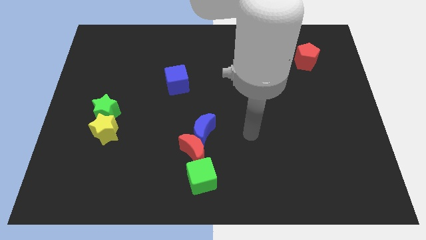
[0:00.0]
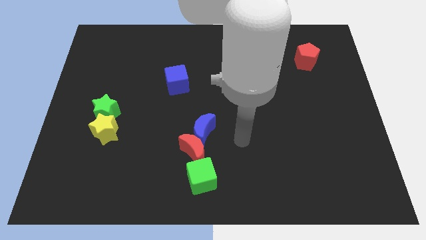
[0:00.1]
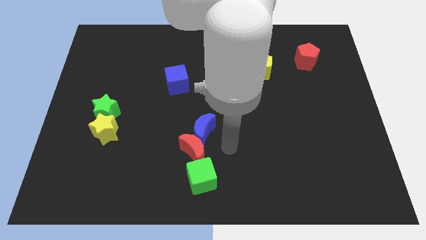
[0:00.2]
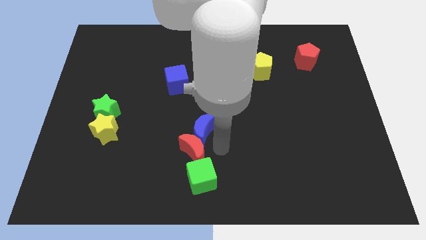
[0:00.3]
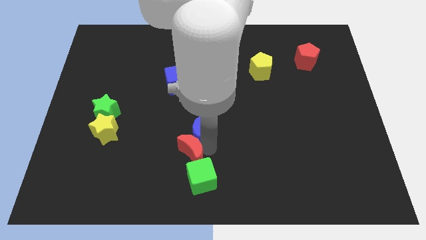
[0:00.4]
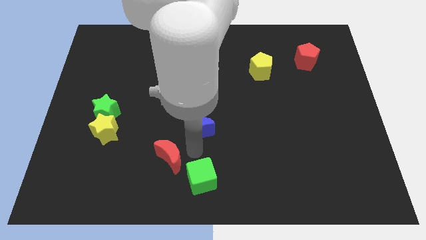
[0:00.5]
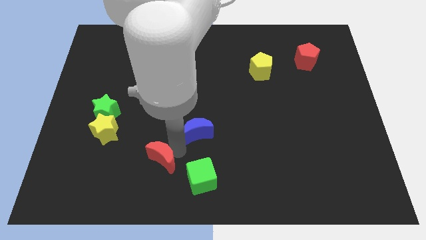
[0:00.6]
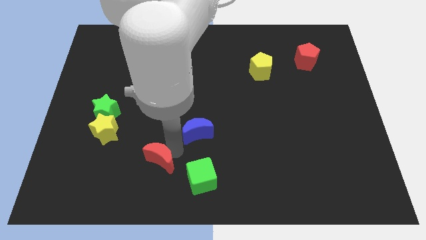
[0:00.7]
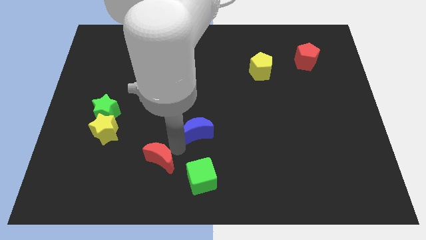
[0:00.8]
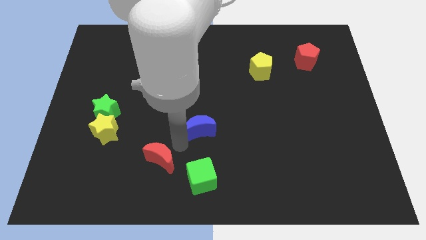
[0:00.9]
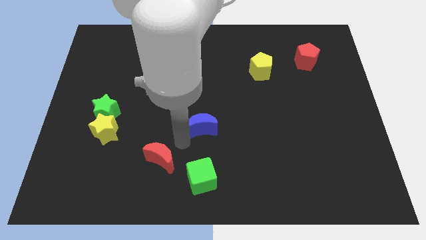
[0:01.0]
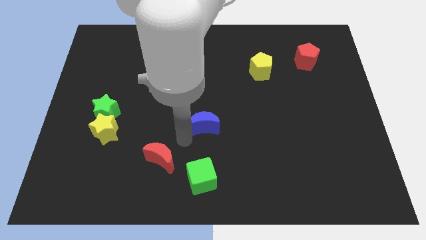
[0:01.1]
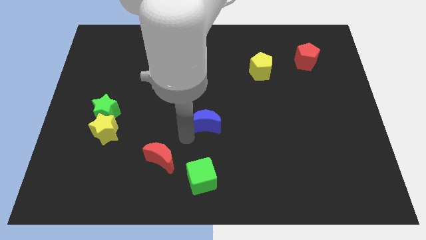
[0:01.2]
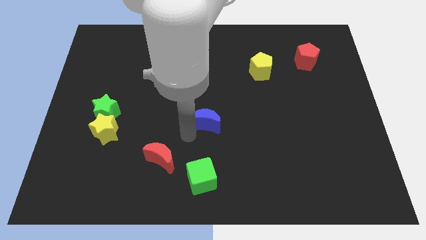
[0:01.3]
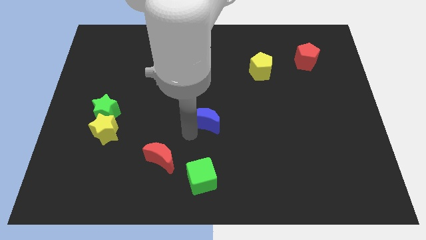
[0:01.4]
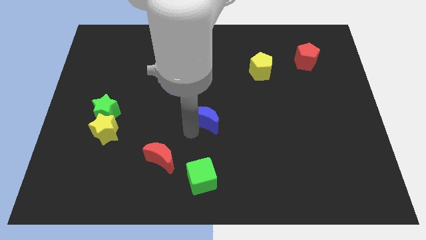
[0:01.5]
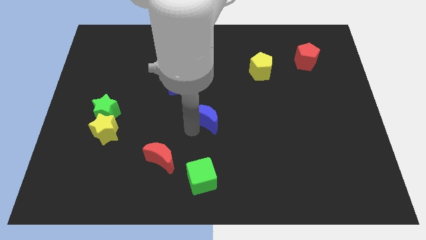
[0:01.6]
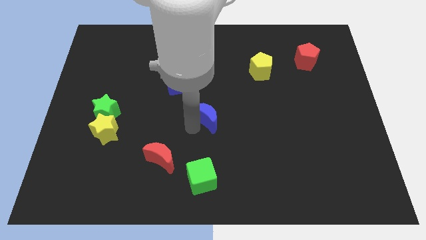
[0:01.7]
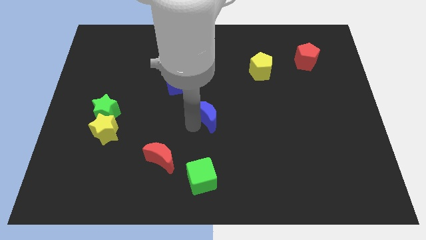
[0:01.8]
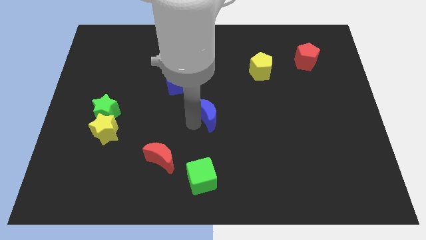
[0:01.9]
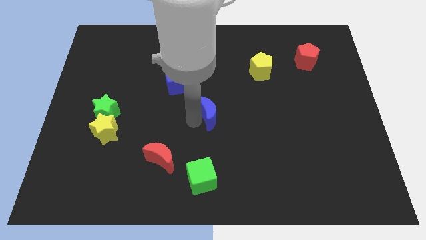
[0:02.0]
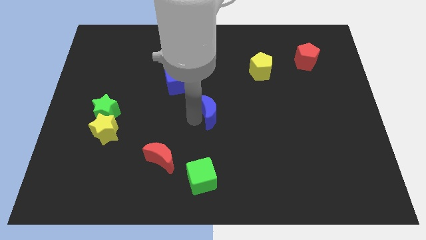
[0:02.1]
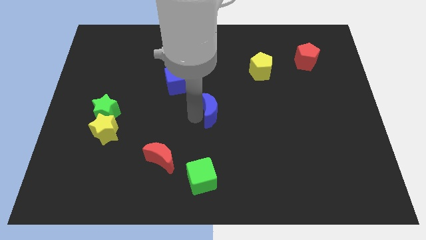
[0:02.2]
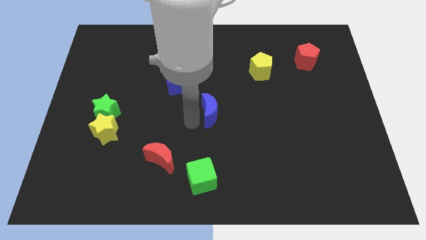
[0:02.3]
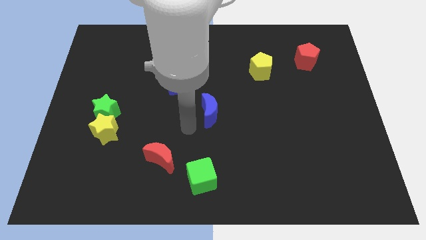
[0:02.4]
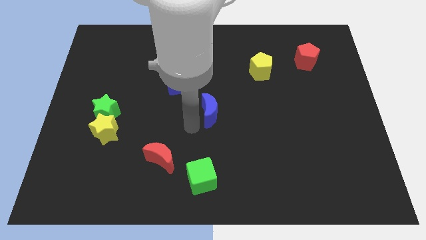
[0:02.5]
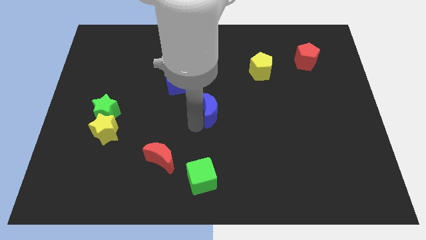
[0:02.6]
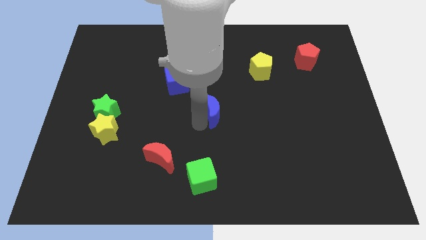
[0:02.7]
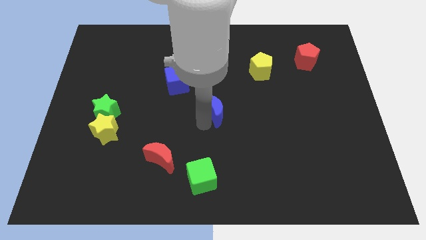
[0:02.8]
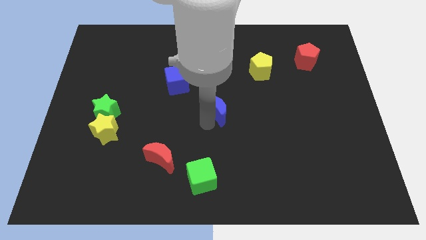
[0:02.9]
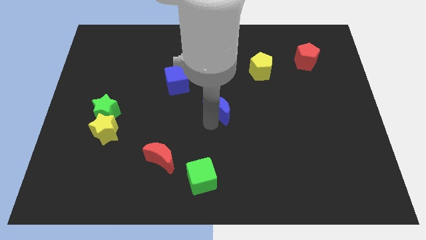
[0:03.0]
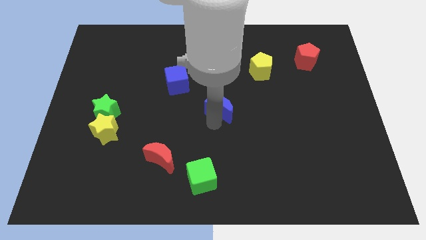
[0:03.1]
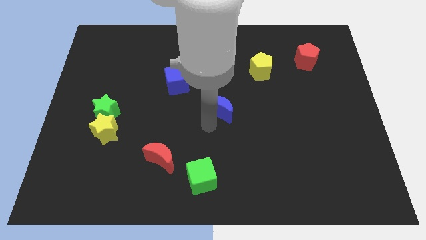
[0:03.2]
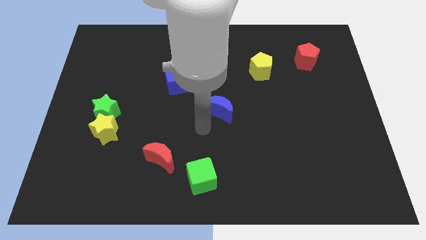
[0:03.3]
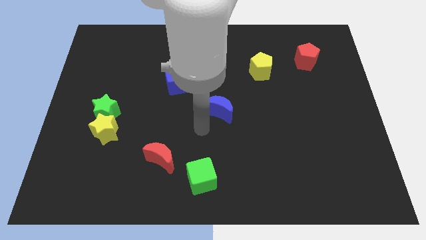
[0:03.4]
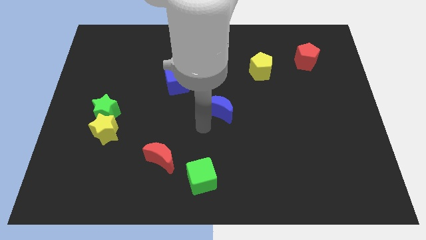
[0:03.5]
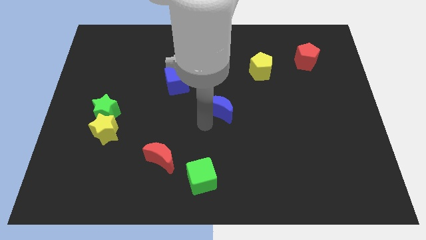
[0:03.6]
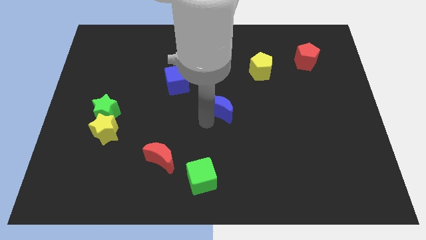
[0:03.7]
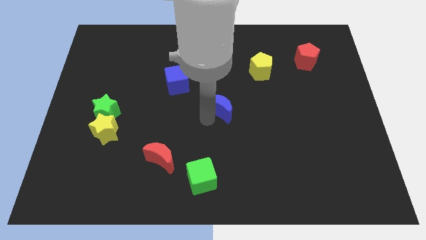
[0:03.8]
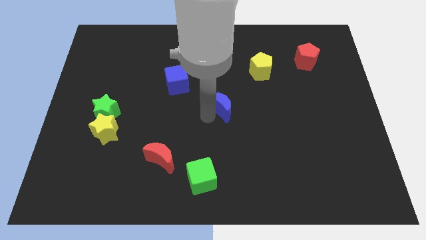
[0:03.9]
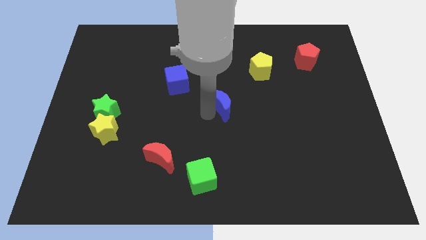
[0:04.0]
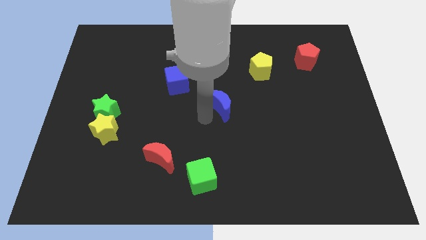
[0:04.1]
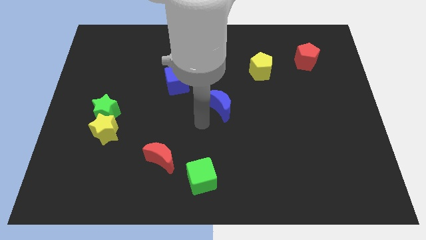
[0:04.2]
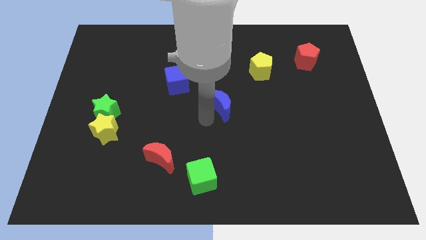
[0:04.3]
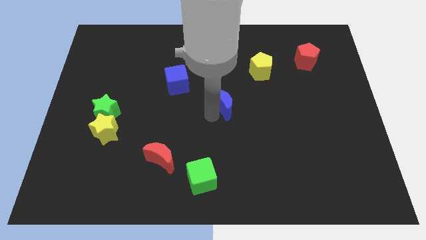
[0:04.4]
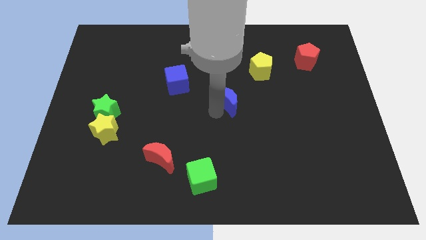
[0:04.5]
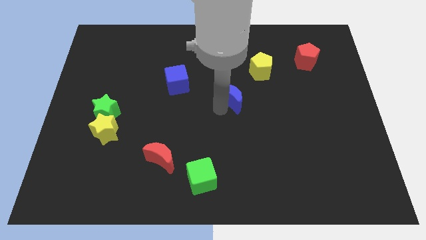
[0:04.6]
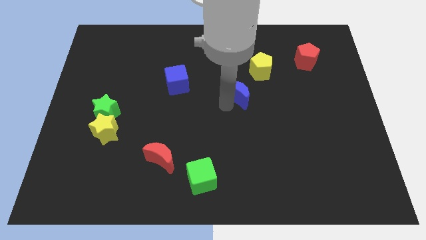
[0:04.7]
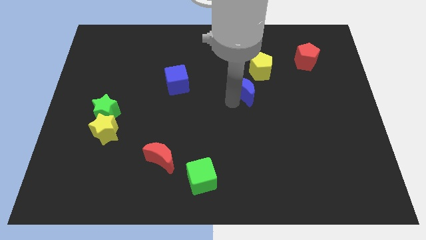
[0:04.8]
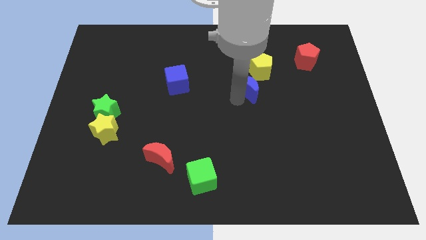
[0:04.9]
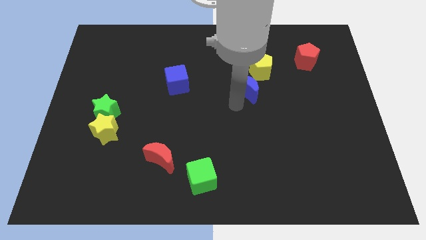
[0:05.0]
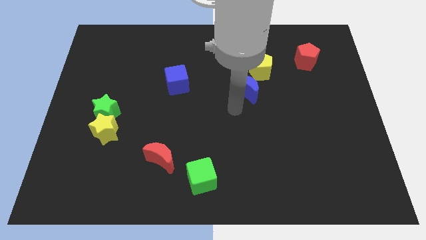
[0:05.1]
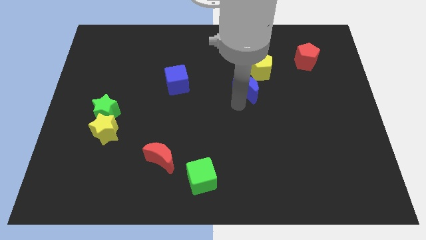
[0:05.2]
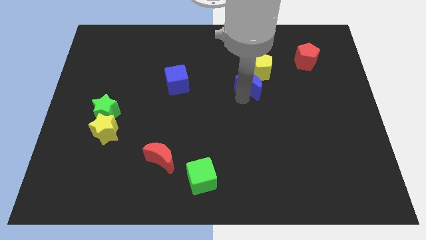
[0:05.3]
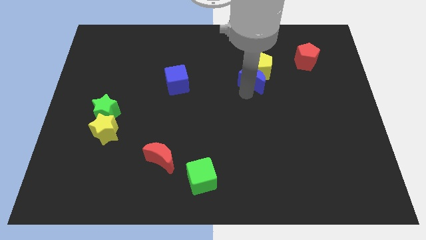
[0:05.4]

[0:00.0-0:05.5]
slide the blue moon next to the yellow pentagon

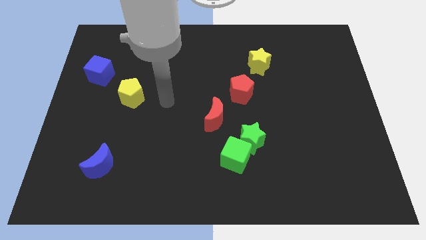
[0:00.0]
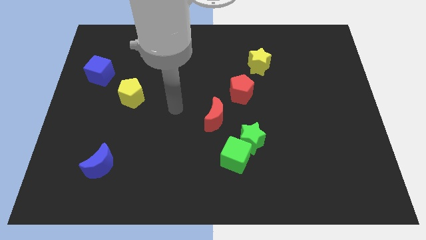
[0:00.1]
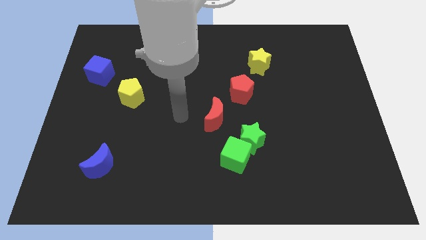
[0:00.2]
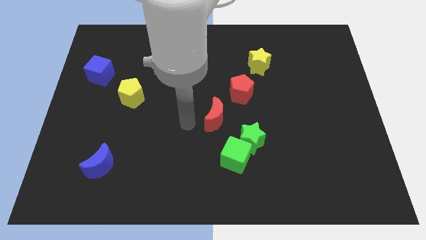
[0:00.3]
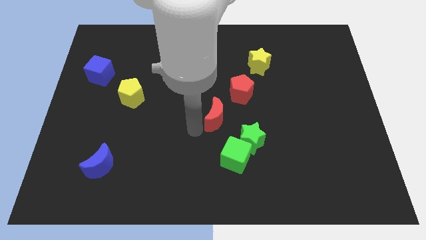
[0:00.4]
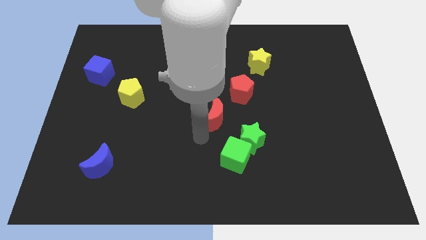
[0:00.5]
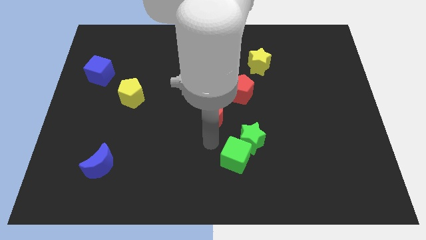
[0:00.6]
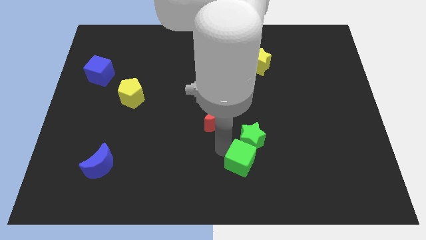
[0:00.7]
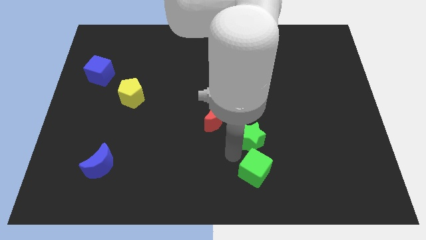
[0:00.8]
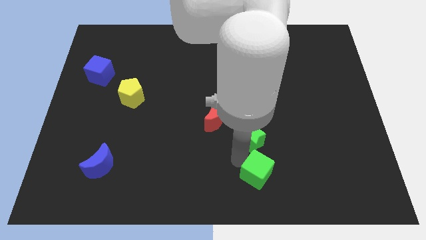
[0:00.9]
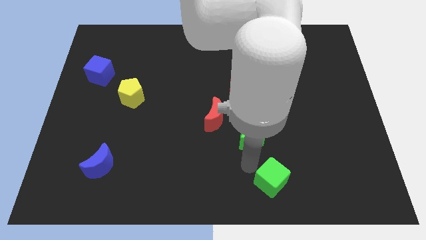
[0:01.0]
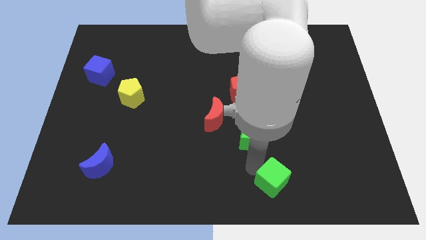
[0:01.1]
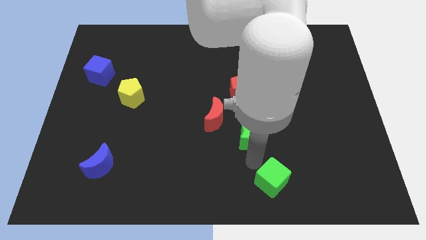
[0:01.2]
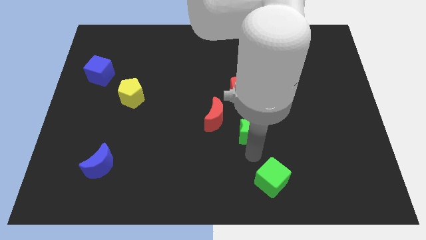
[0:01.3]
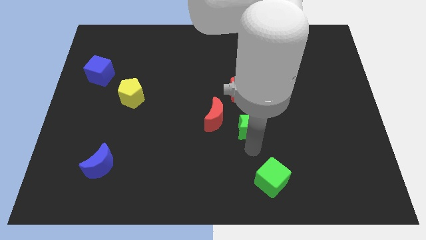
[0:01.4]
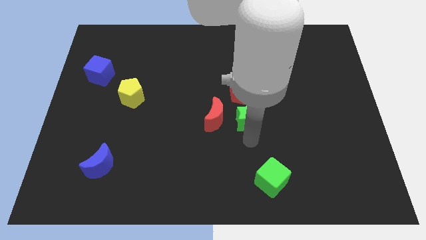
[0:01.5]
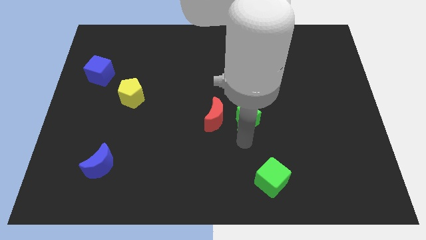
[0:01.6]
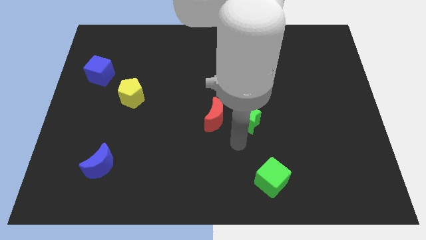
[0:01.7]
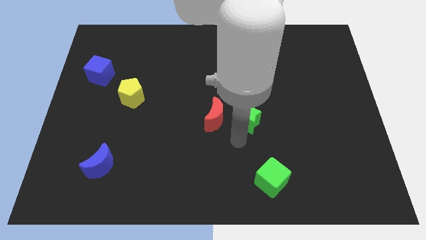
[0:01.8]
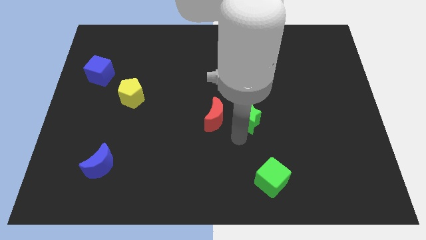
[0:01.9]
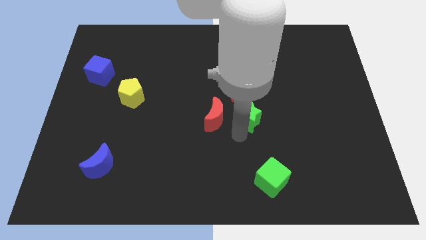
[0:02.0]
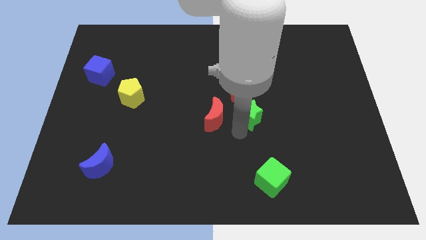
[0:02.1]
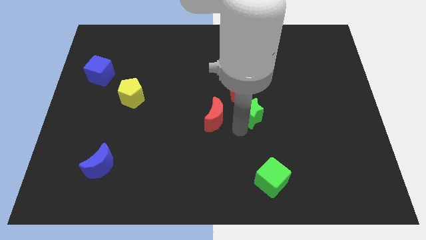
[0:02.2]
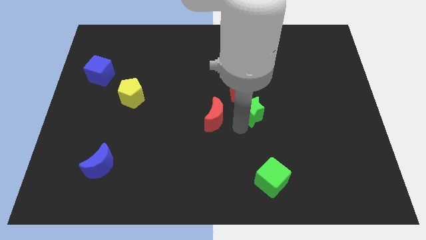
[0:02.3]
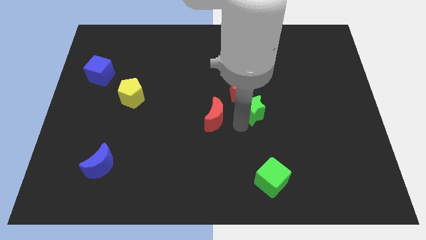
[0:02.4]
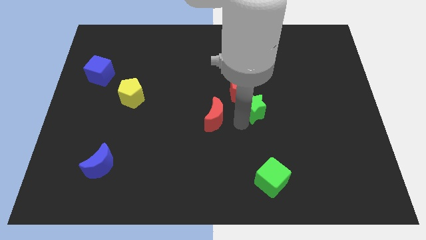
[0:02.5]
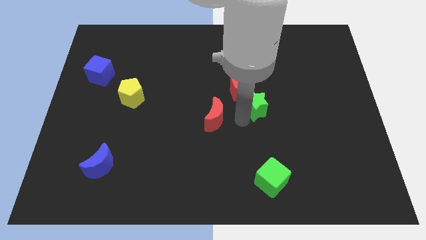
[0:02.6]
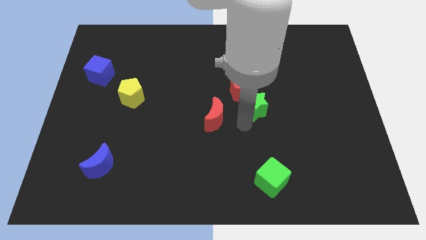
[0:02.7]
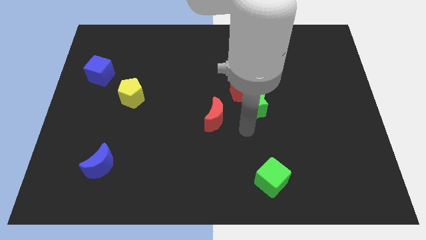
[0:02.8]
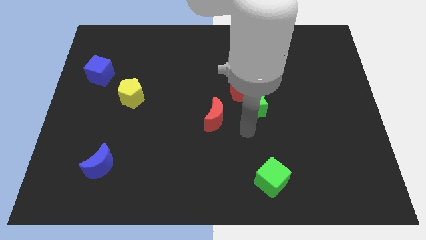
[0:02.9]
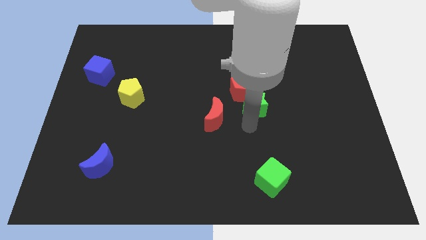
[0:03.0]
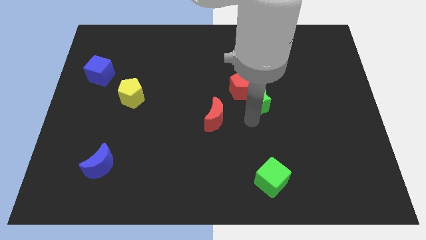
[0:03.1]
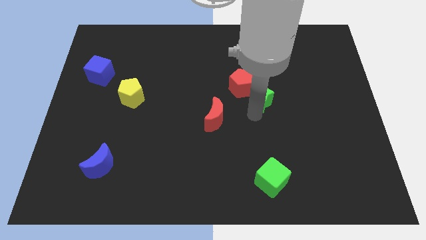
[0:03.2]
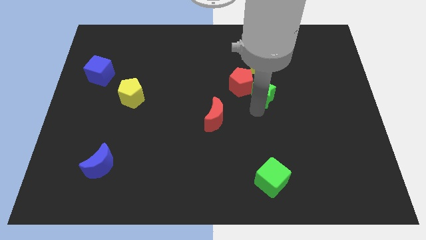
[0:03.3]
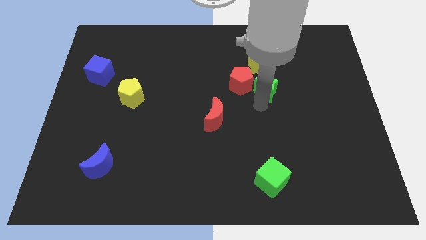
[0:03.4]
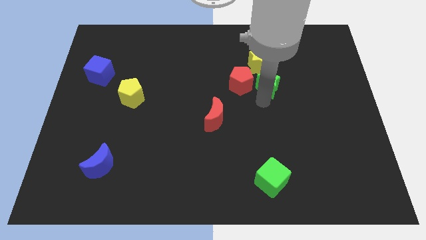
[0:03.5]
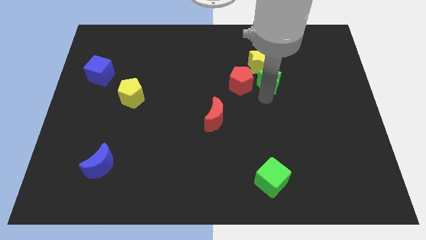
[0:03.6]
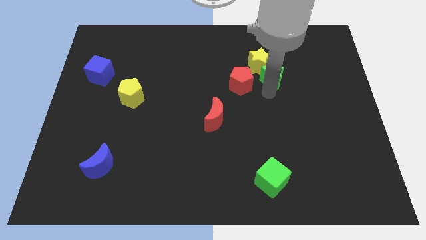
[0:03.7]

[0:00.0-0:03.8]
put the green star to the yellow star
